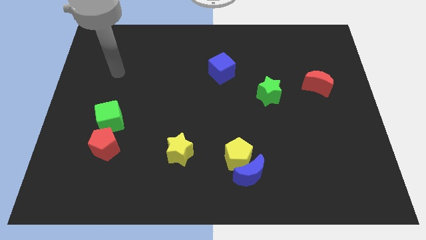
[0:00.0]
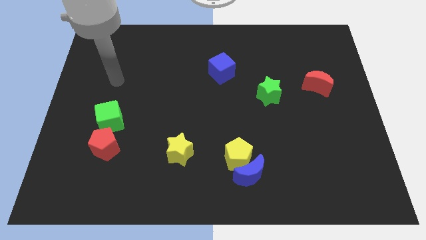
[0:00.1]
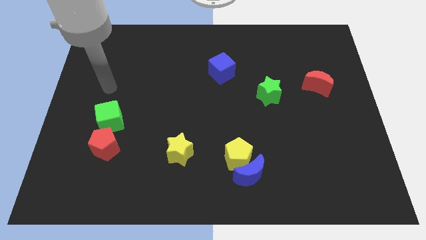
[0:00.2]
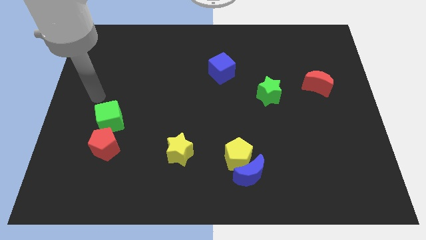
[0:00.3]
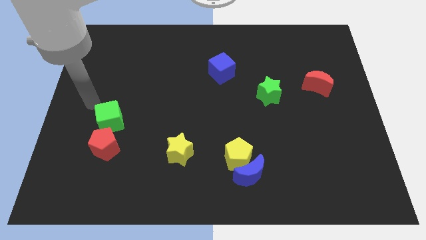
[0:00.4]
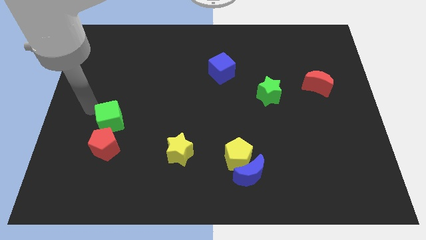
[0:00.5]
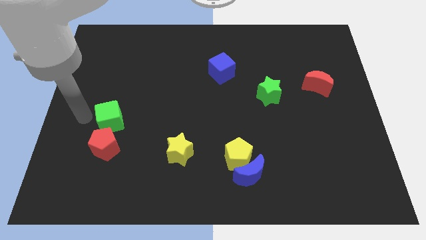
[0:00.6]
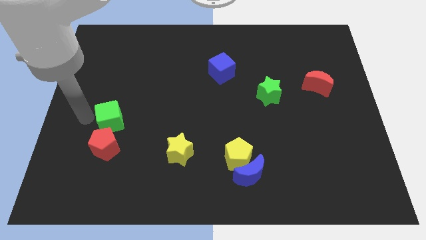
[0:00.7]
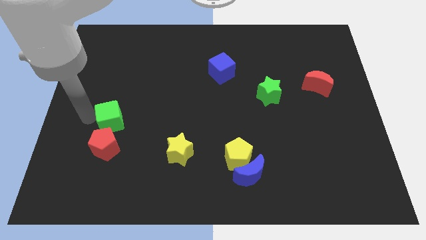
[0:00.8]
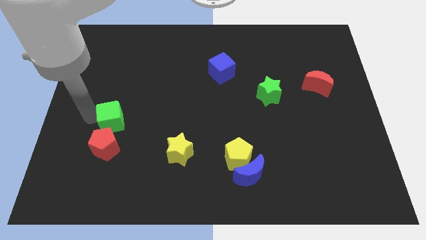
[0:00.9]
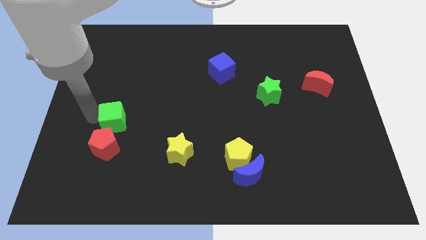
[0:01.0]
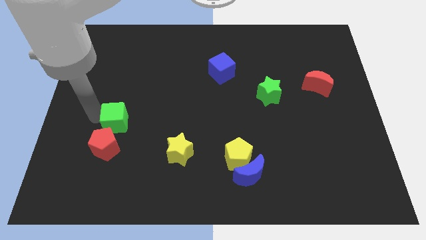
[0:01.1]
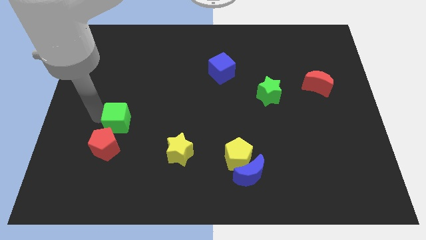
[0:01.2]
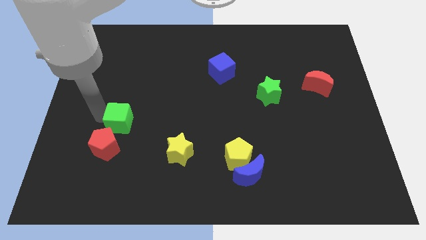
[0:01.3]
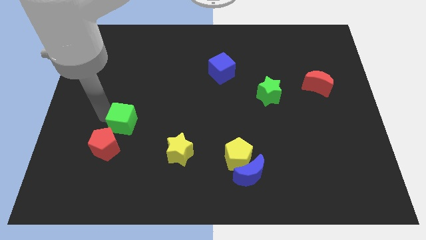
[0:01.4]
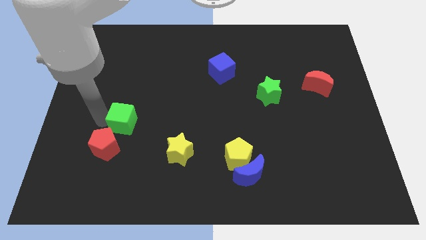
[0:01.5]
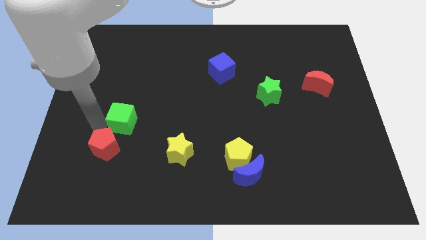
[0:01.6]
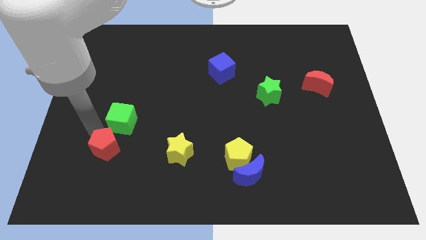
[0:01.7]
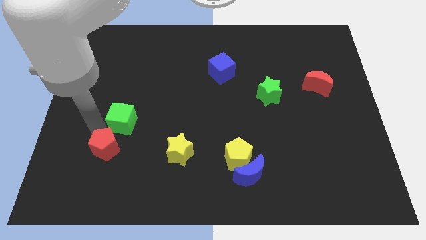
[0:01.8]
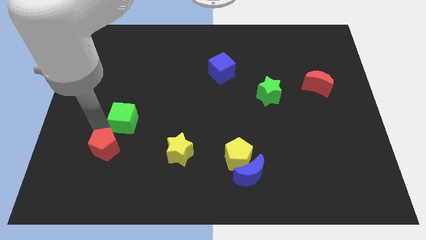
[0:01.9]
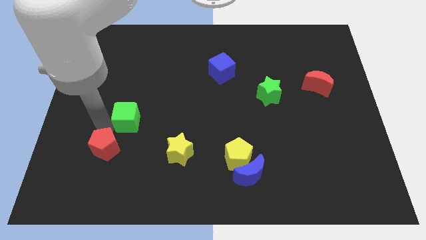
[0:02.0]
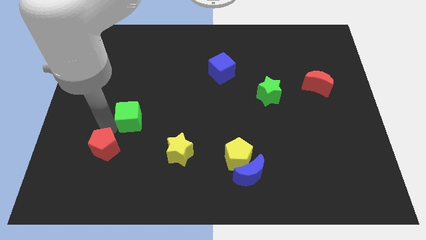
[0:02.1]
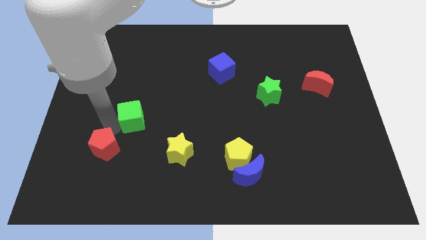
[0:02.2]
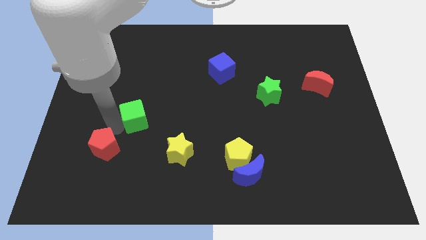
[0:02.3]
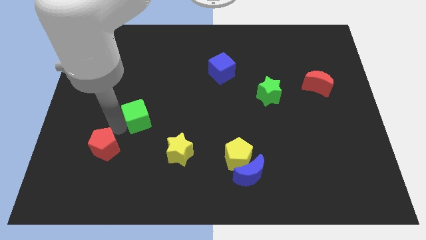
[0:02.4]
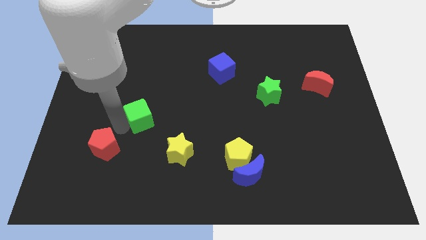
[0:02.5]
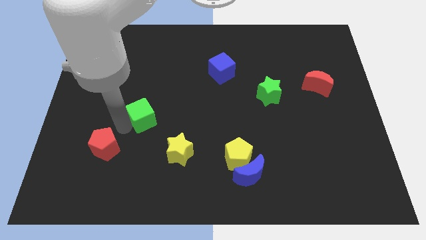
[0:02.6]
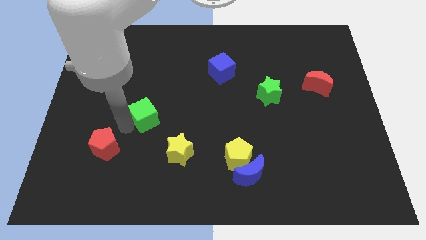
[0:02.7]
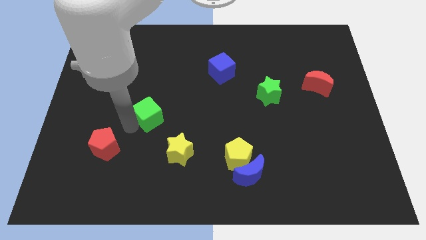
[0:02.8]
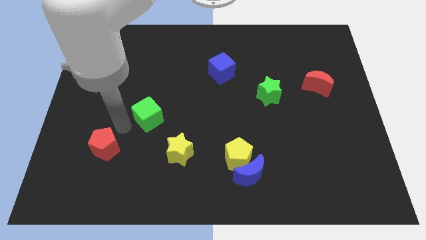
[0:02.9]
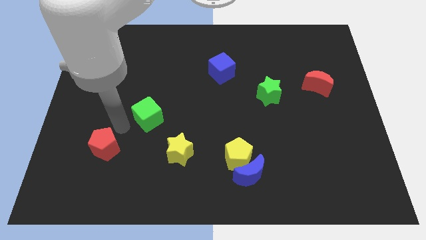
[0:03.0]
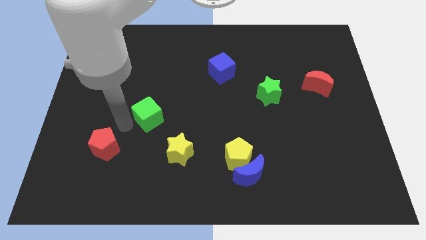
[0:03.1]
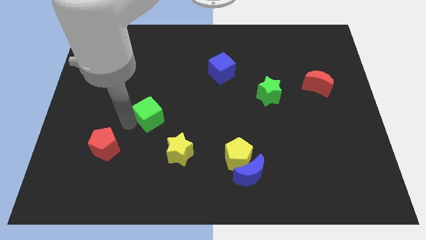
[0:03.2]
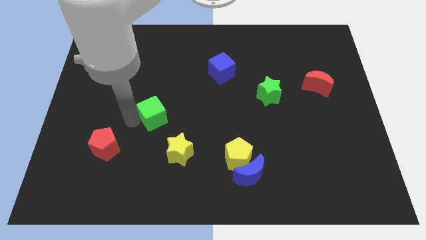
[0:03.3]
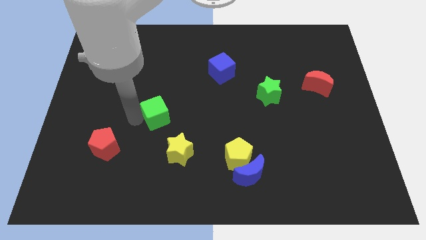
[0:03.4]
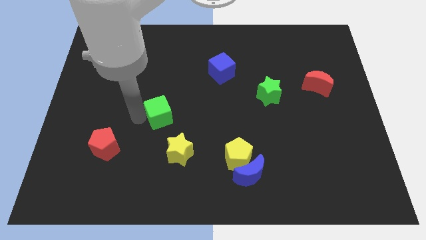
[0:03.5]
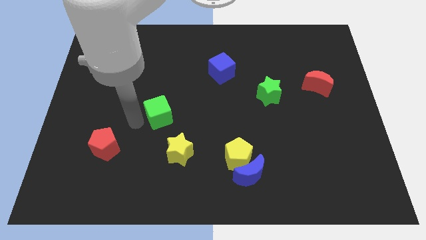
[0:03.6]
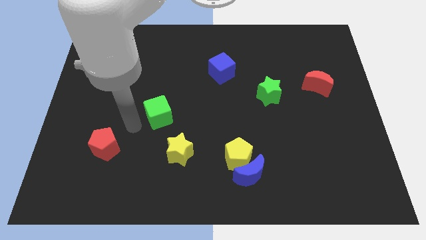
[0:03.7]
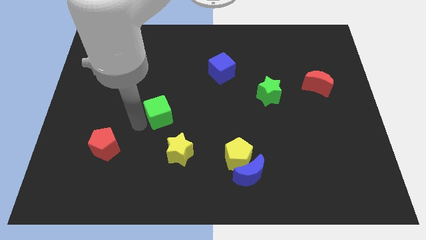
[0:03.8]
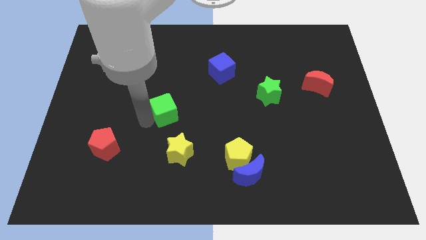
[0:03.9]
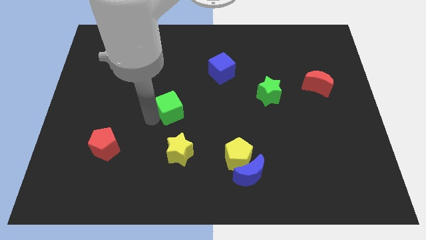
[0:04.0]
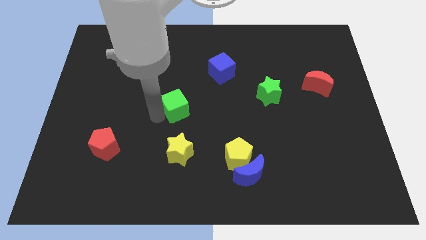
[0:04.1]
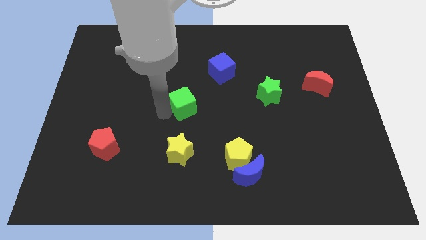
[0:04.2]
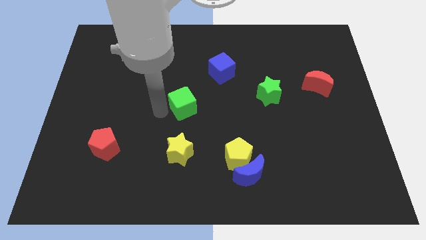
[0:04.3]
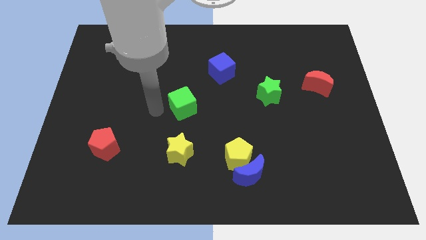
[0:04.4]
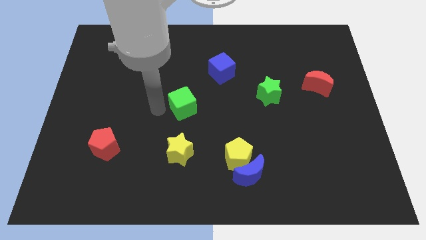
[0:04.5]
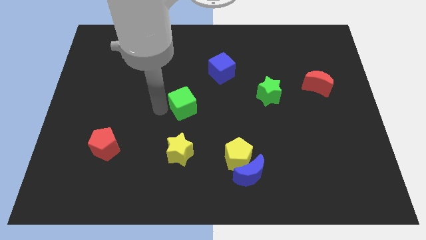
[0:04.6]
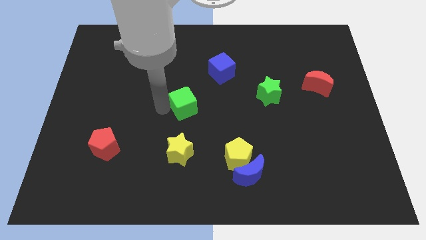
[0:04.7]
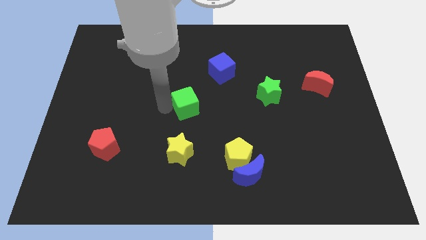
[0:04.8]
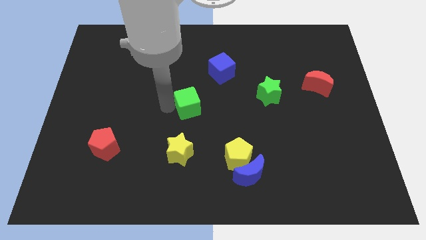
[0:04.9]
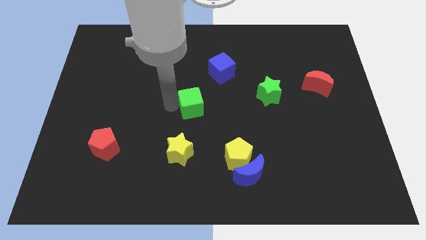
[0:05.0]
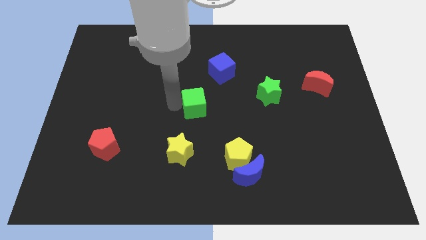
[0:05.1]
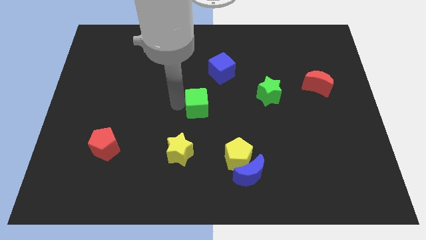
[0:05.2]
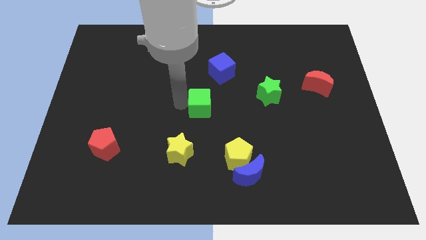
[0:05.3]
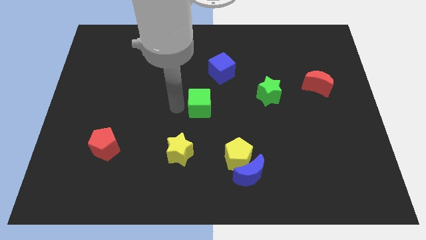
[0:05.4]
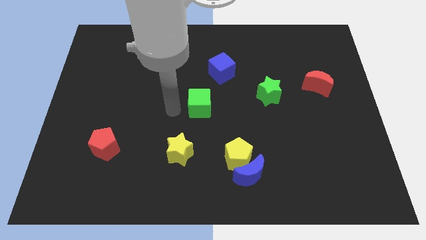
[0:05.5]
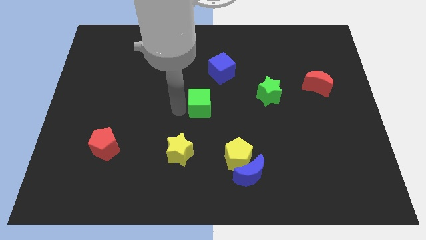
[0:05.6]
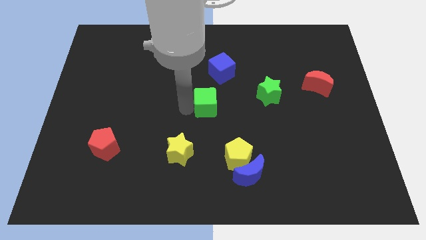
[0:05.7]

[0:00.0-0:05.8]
put the green cube below the blue cube

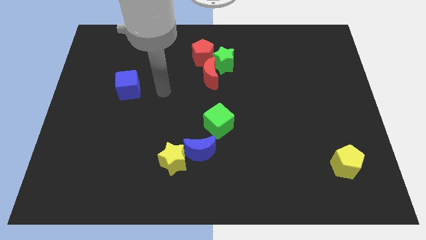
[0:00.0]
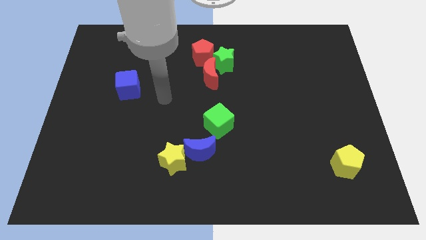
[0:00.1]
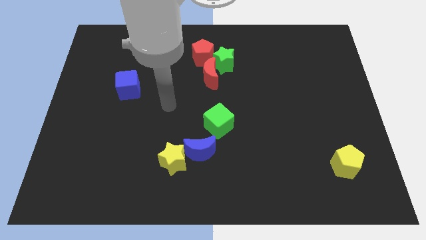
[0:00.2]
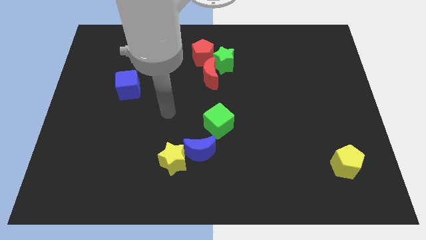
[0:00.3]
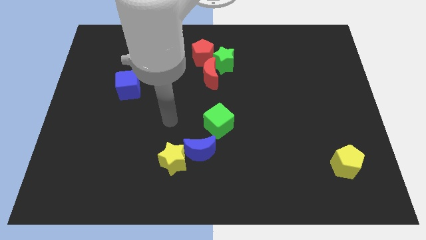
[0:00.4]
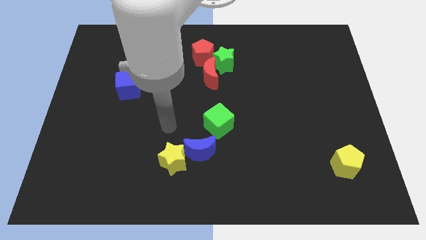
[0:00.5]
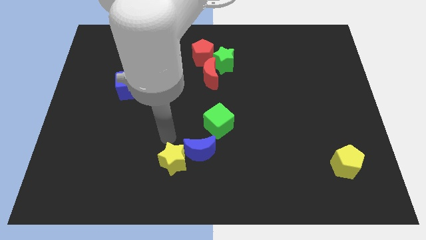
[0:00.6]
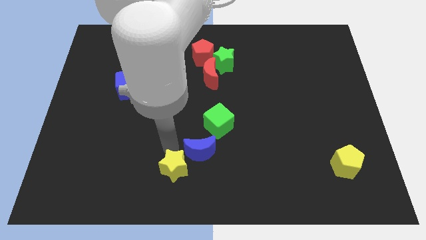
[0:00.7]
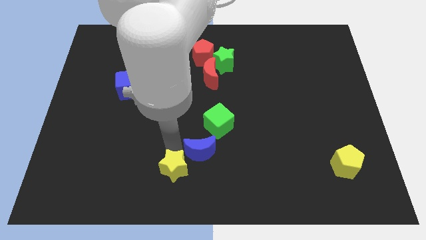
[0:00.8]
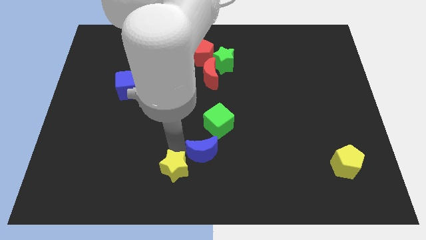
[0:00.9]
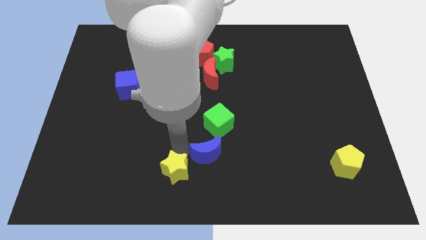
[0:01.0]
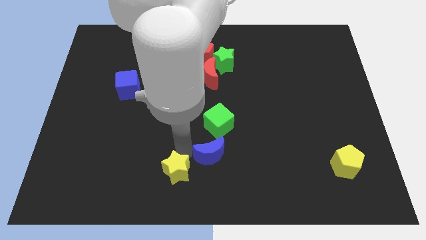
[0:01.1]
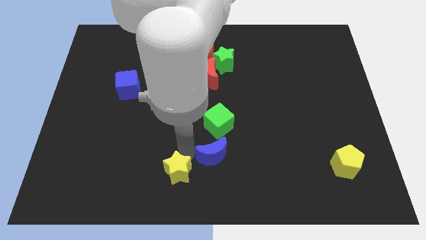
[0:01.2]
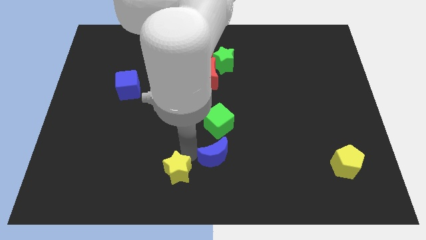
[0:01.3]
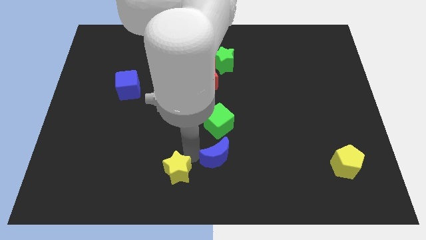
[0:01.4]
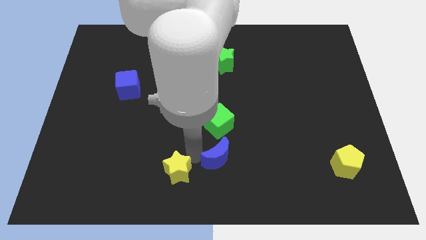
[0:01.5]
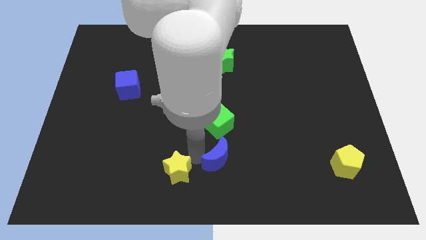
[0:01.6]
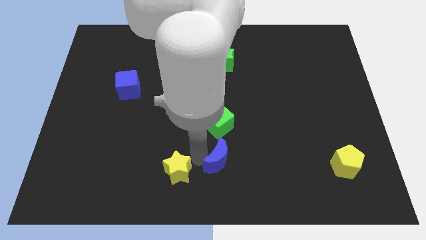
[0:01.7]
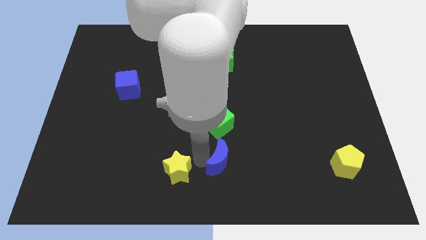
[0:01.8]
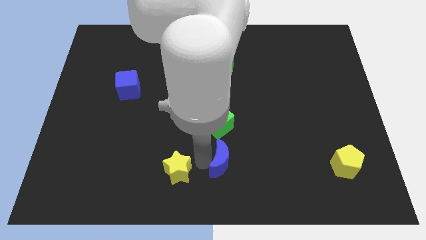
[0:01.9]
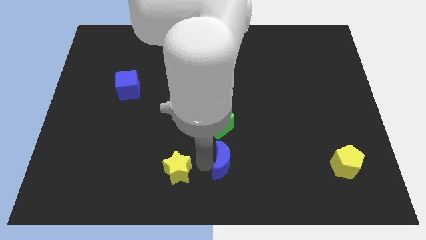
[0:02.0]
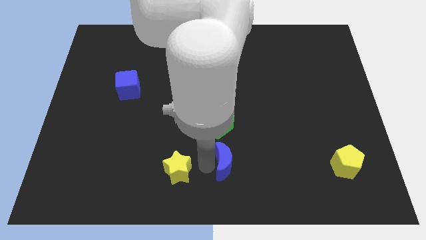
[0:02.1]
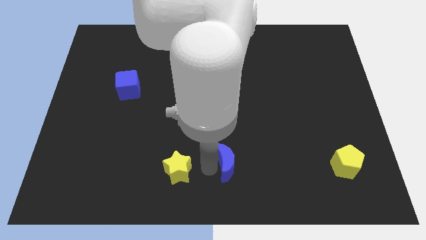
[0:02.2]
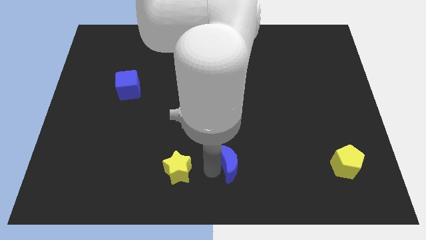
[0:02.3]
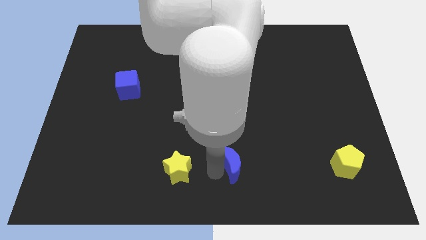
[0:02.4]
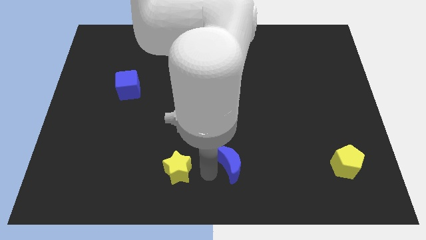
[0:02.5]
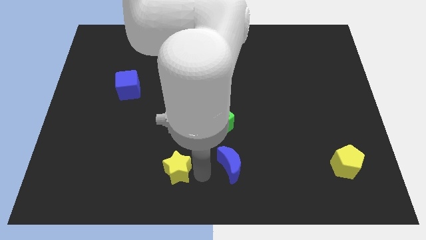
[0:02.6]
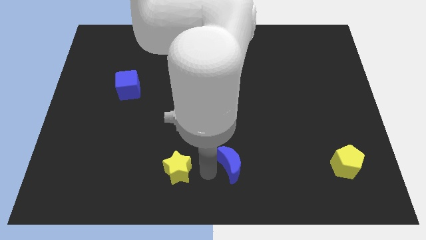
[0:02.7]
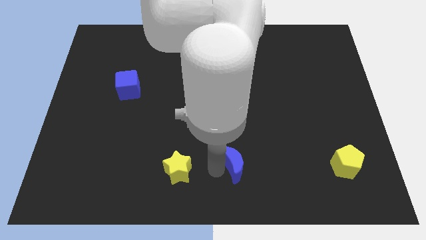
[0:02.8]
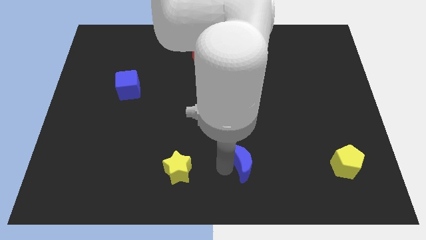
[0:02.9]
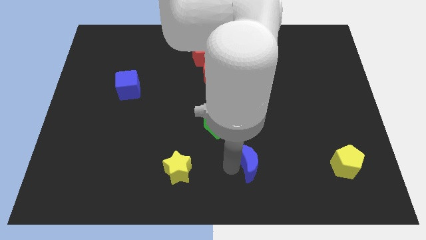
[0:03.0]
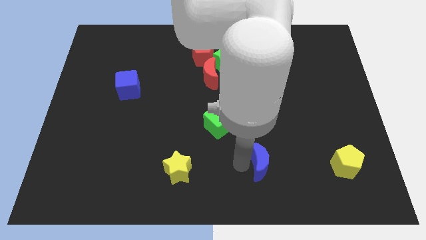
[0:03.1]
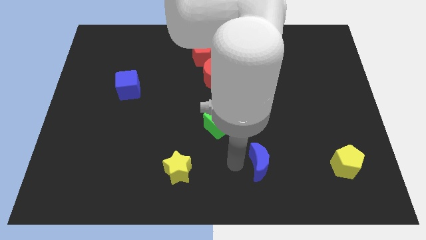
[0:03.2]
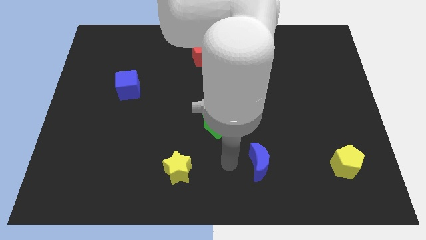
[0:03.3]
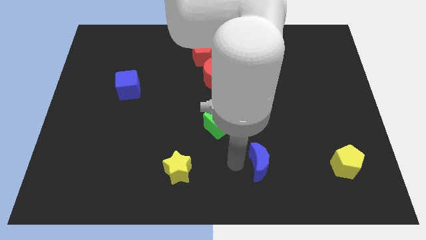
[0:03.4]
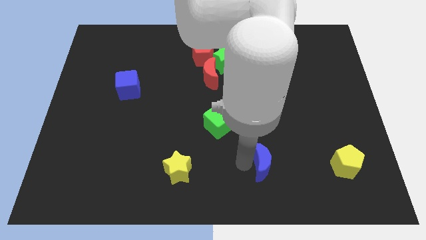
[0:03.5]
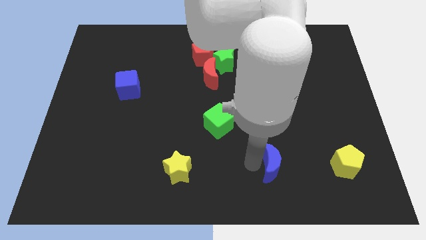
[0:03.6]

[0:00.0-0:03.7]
put the blue moon just left of the yellow pentagon
